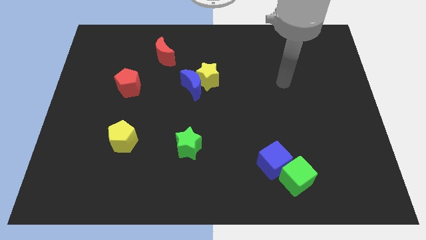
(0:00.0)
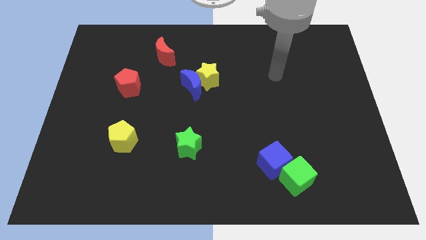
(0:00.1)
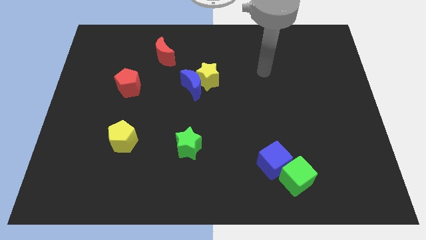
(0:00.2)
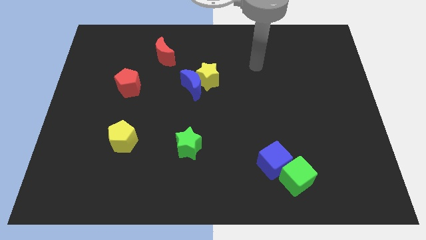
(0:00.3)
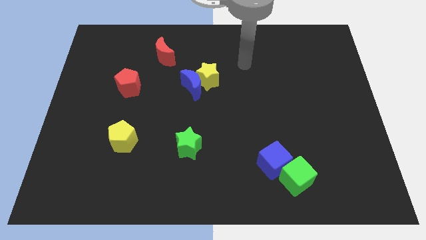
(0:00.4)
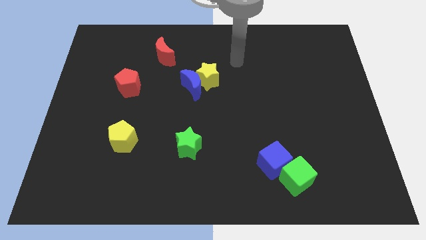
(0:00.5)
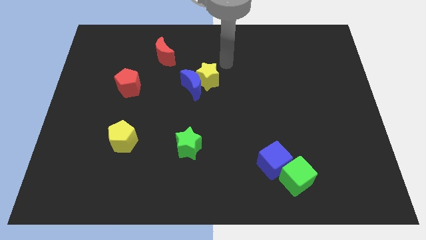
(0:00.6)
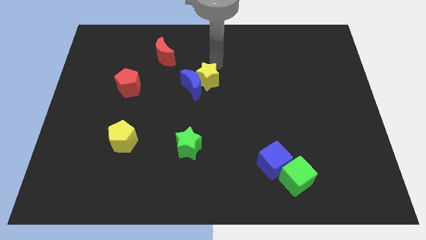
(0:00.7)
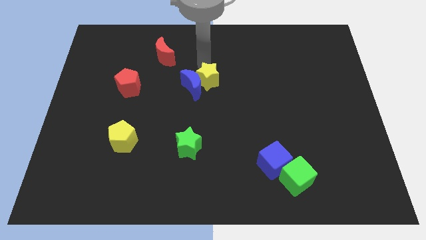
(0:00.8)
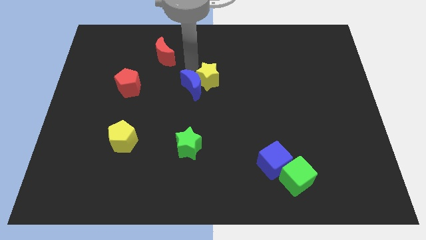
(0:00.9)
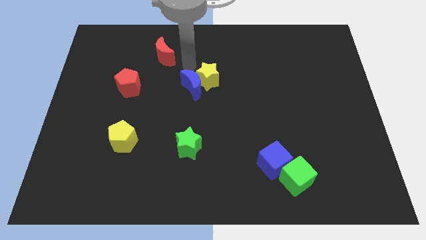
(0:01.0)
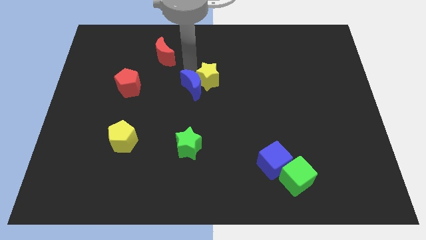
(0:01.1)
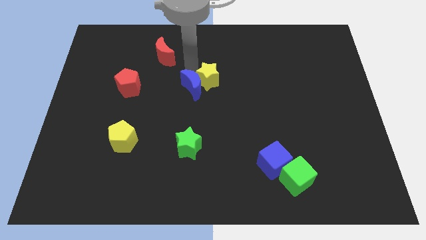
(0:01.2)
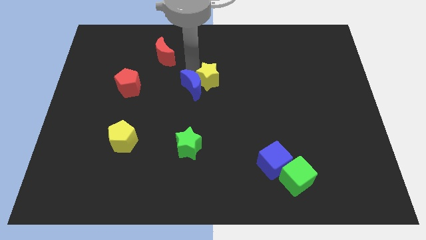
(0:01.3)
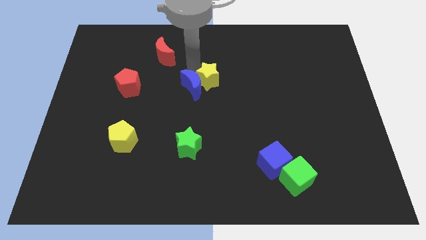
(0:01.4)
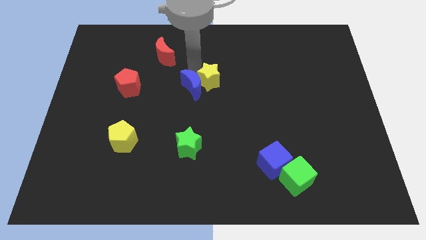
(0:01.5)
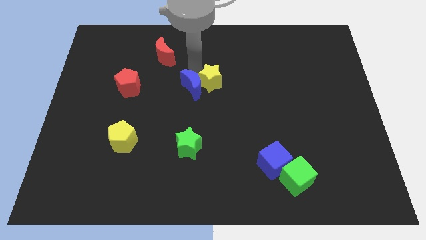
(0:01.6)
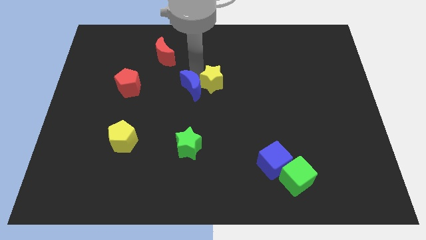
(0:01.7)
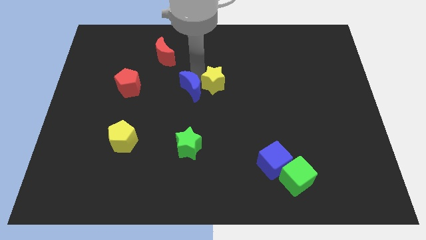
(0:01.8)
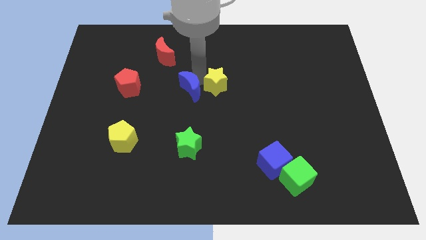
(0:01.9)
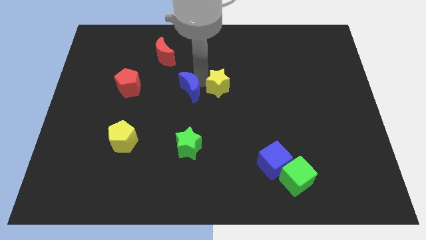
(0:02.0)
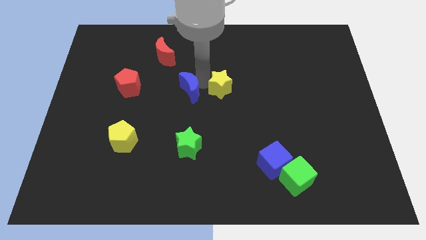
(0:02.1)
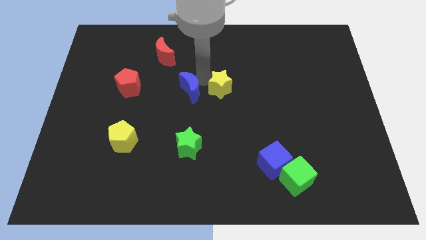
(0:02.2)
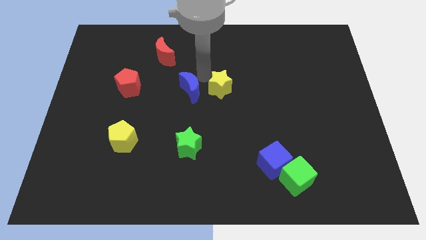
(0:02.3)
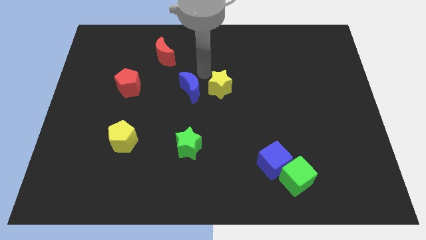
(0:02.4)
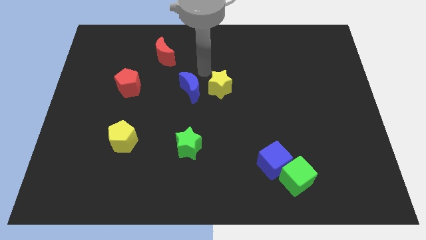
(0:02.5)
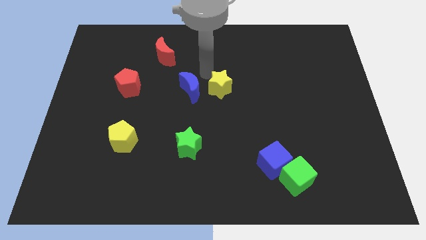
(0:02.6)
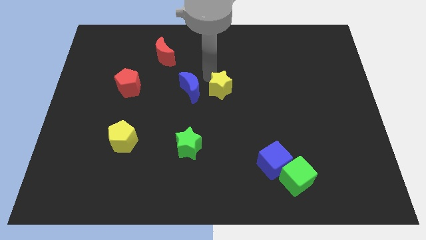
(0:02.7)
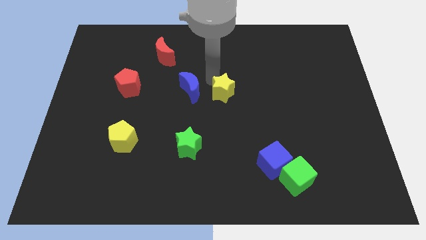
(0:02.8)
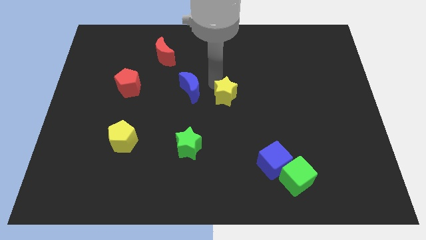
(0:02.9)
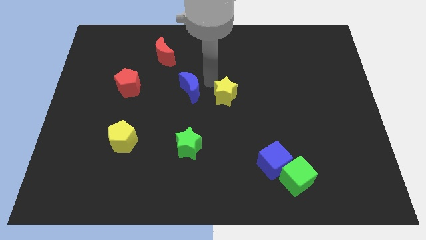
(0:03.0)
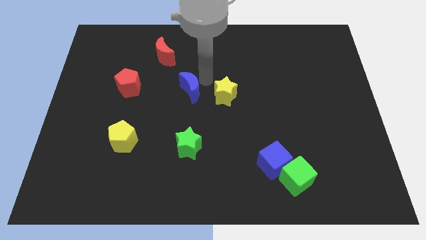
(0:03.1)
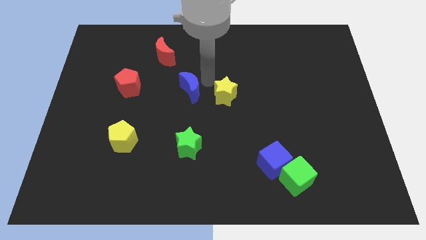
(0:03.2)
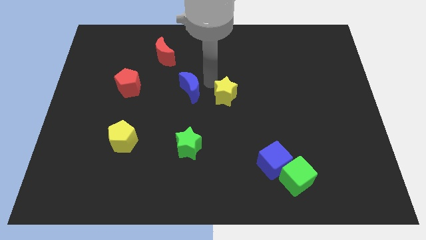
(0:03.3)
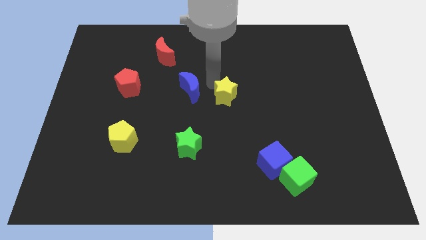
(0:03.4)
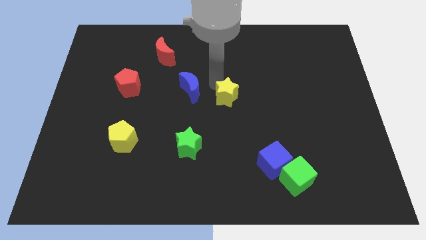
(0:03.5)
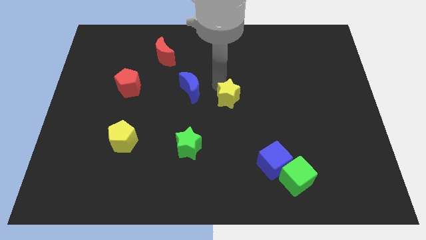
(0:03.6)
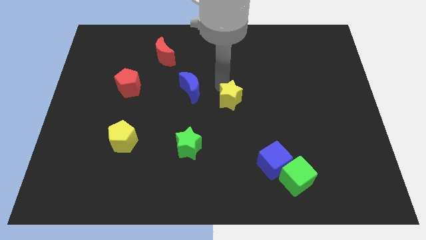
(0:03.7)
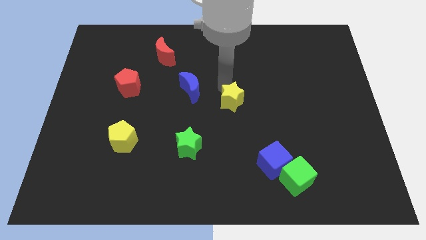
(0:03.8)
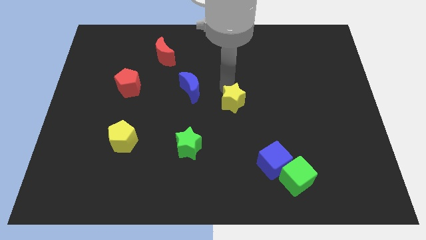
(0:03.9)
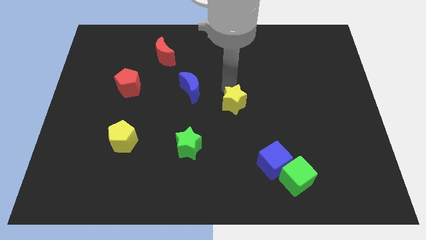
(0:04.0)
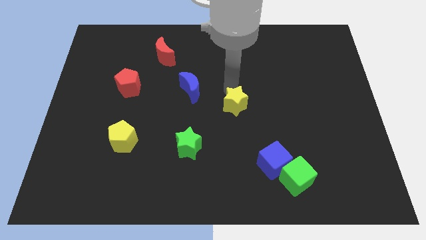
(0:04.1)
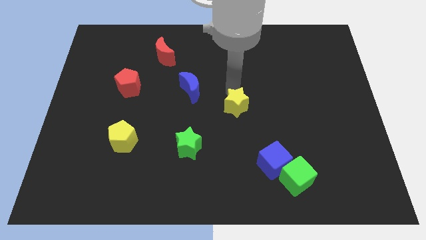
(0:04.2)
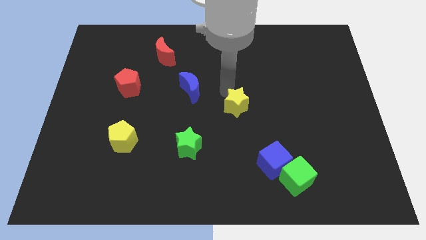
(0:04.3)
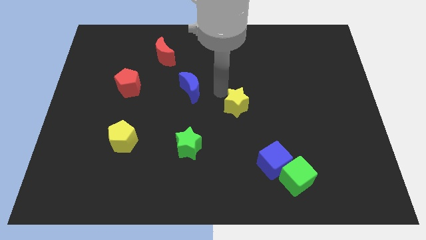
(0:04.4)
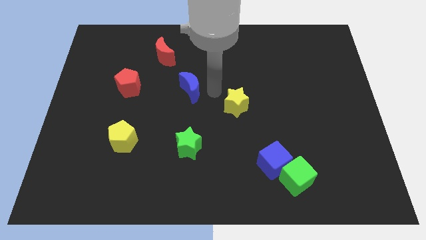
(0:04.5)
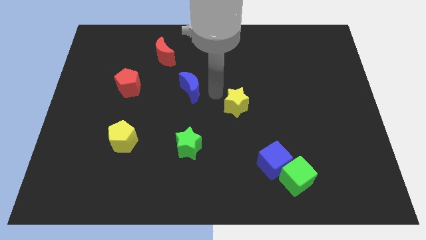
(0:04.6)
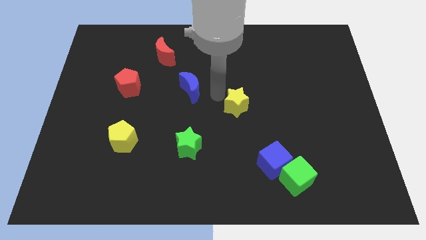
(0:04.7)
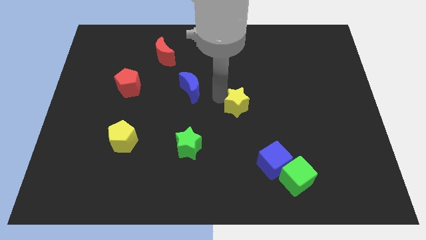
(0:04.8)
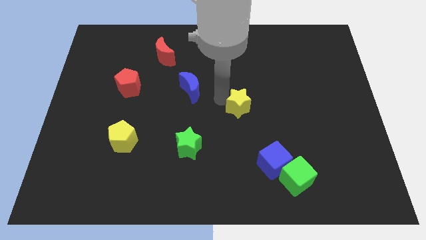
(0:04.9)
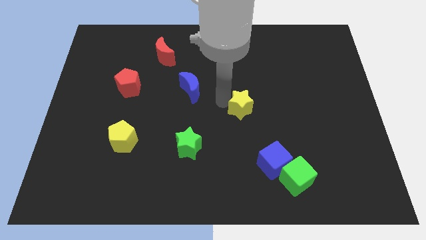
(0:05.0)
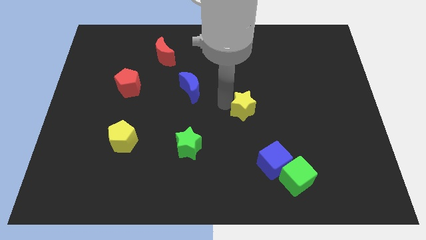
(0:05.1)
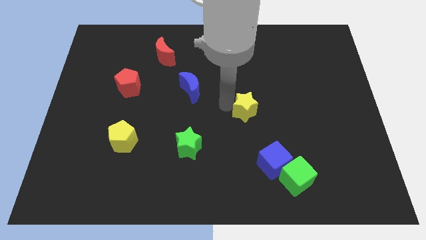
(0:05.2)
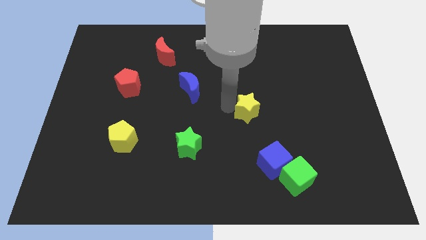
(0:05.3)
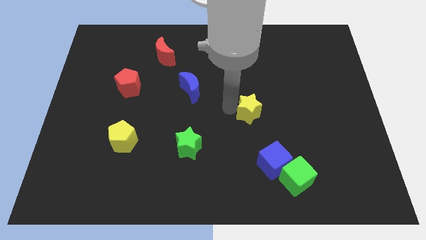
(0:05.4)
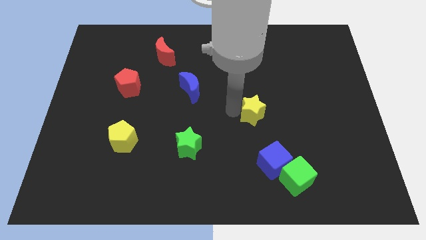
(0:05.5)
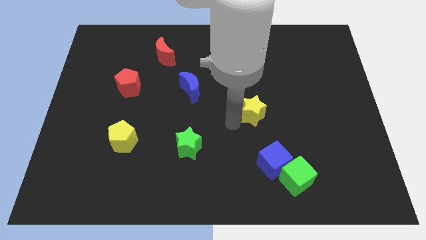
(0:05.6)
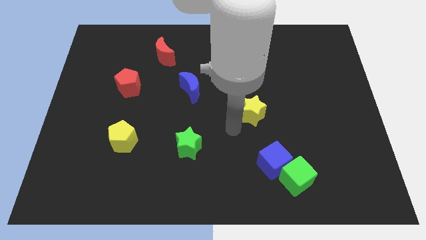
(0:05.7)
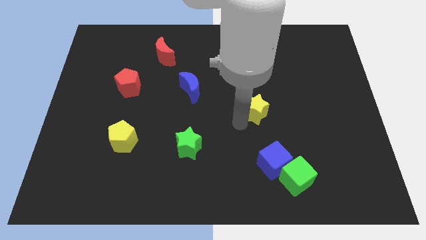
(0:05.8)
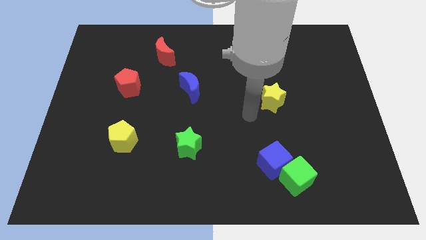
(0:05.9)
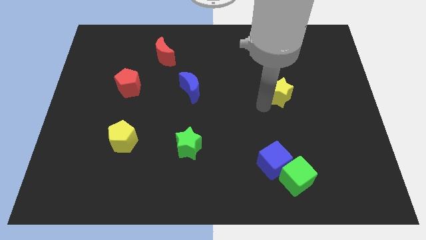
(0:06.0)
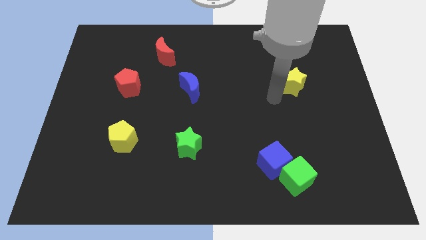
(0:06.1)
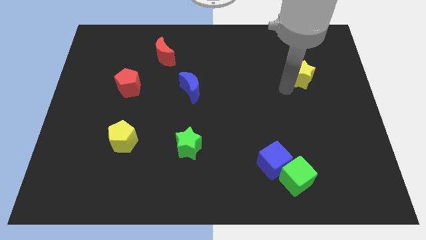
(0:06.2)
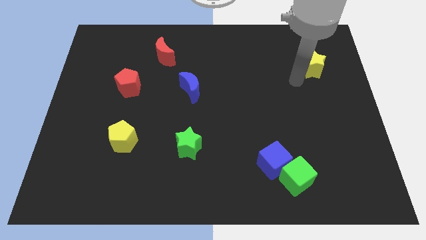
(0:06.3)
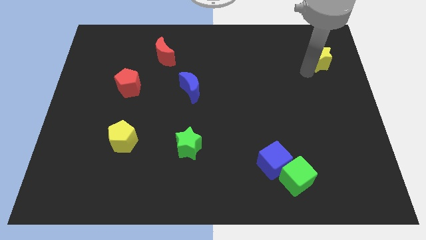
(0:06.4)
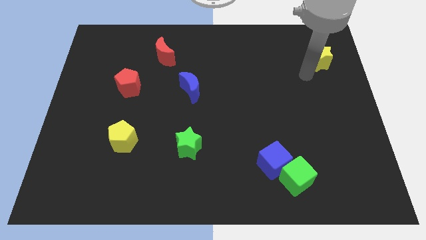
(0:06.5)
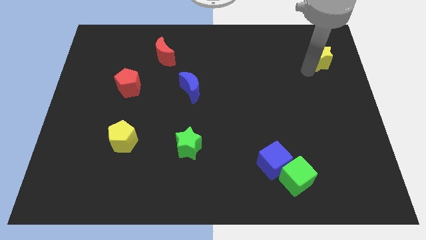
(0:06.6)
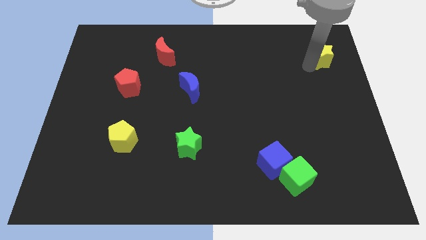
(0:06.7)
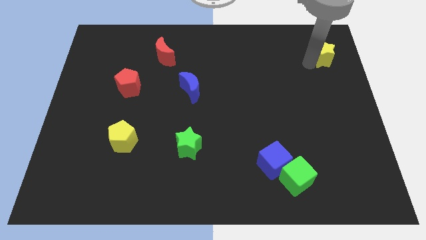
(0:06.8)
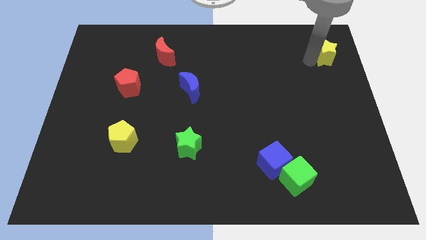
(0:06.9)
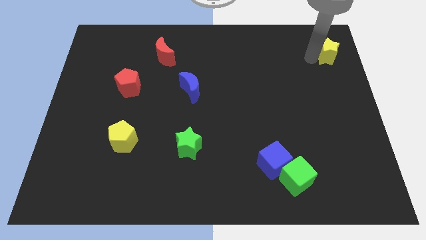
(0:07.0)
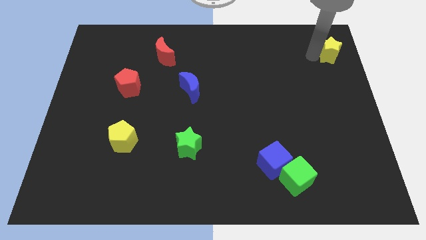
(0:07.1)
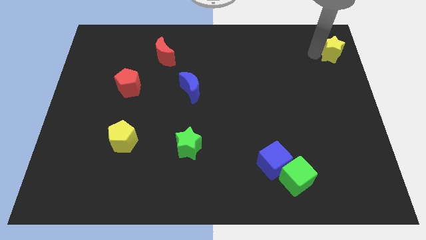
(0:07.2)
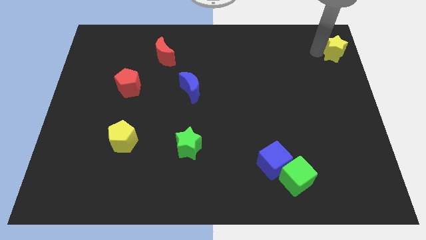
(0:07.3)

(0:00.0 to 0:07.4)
put the yellow star to the top right of the board
